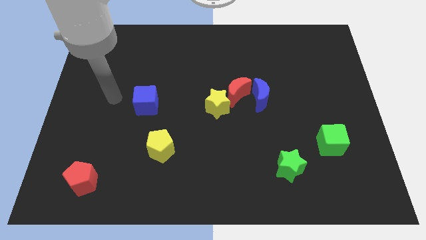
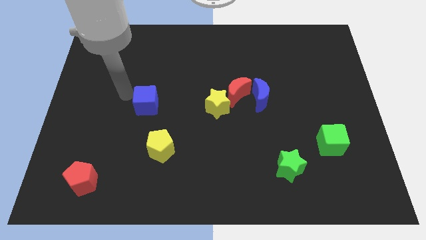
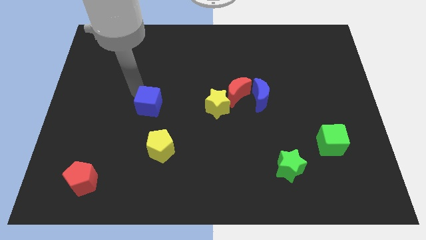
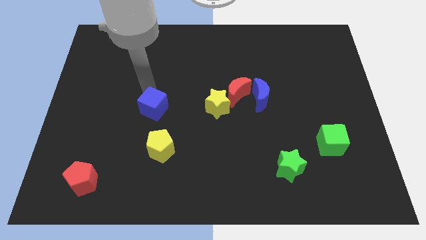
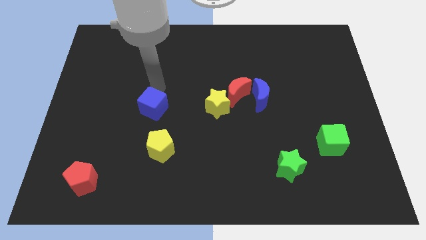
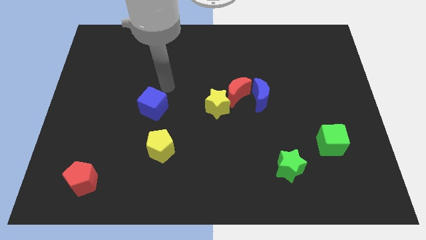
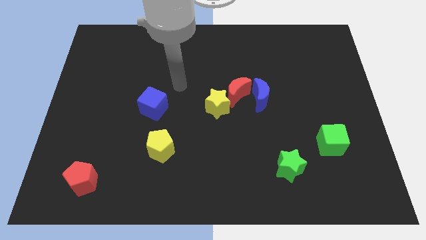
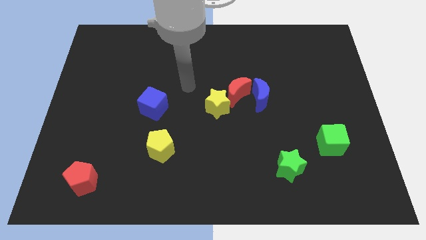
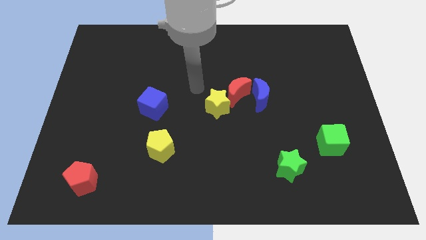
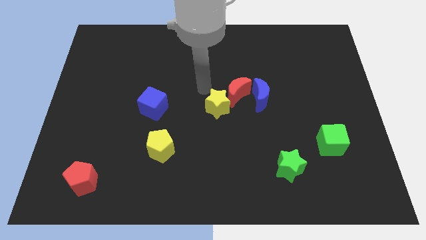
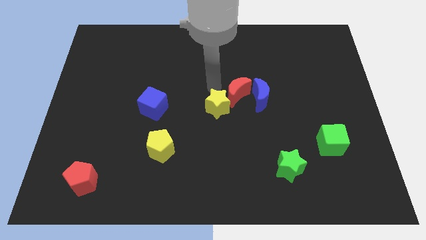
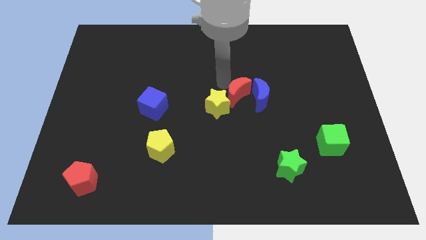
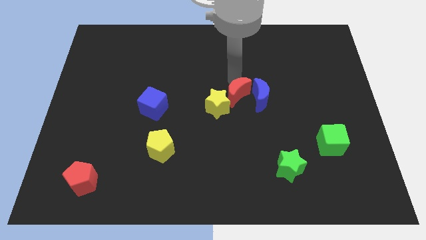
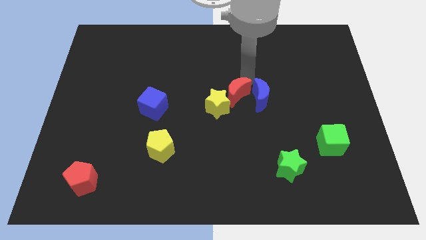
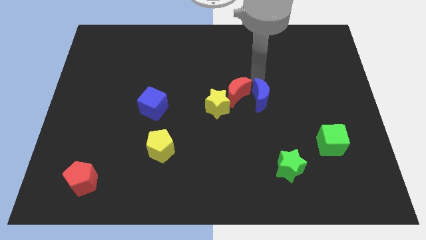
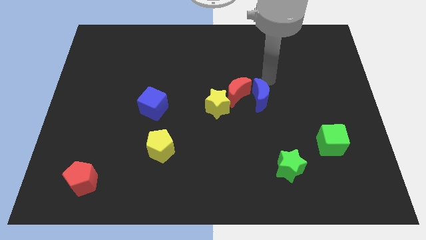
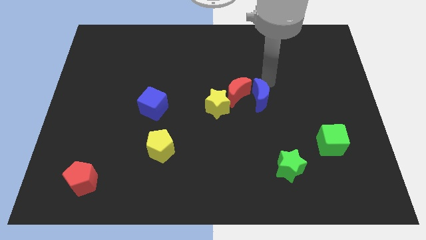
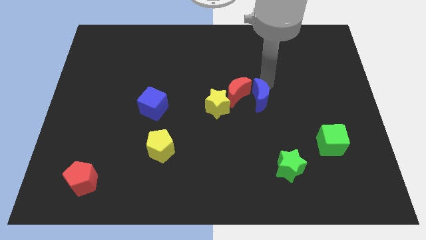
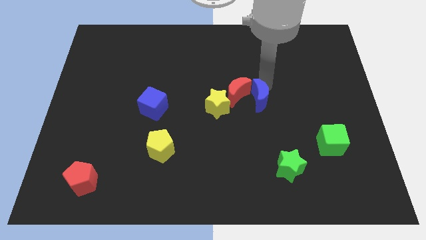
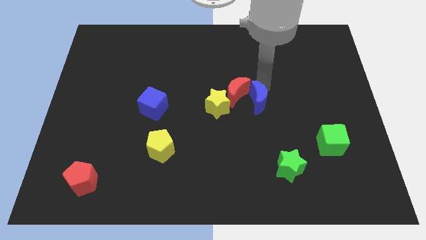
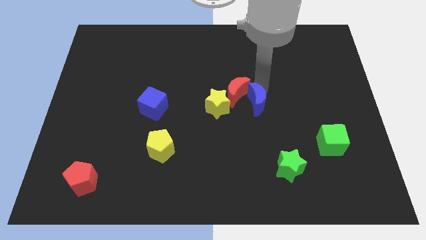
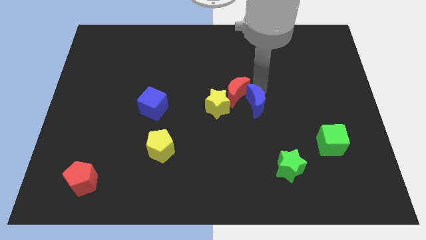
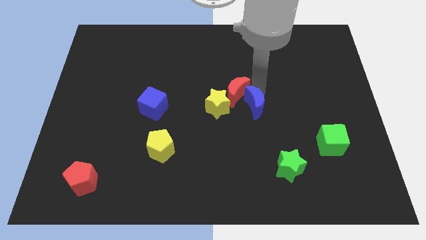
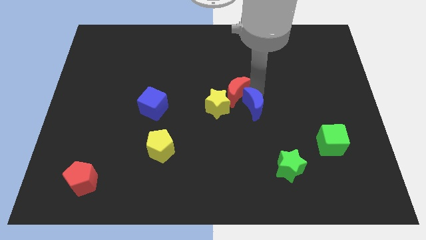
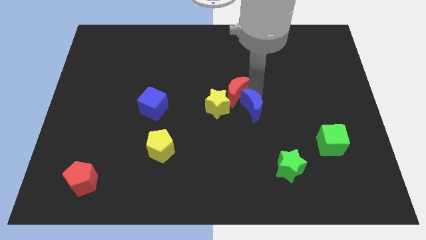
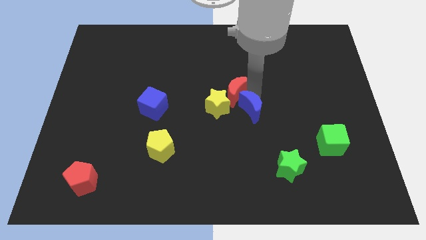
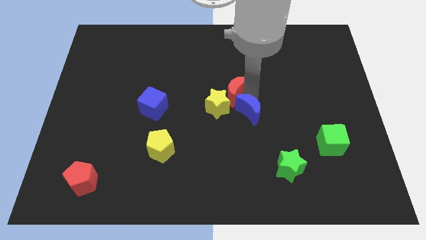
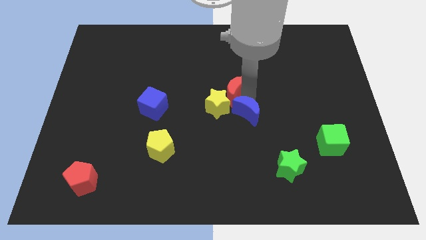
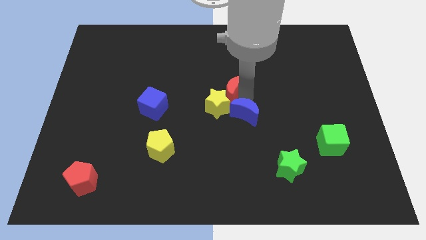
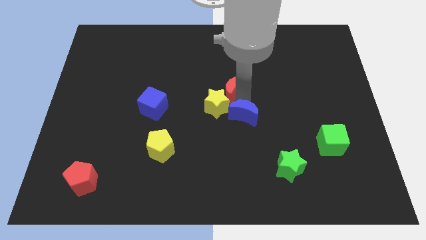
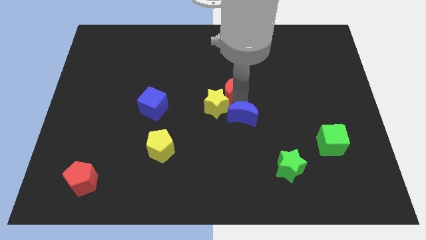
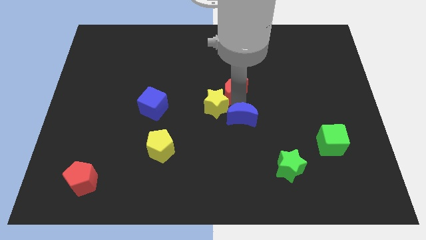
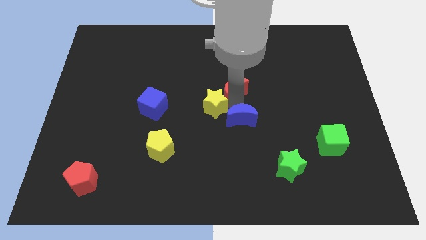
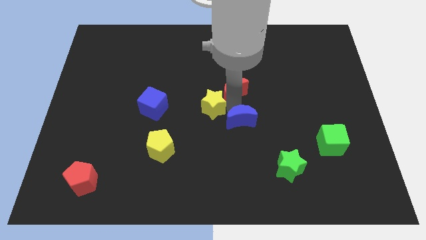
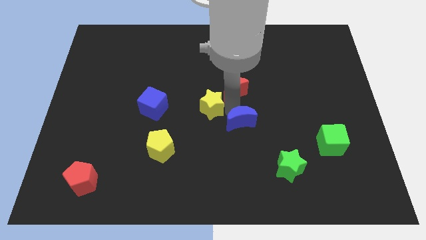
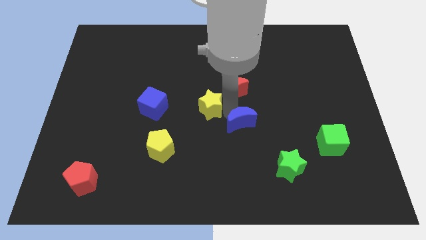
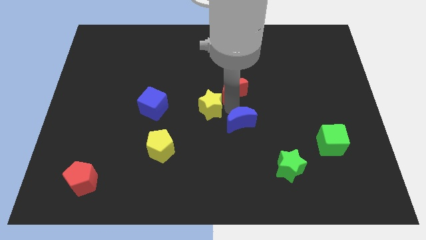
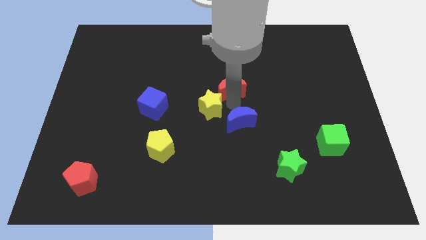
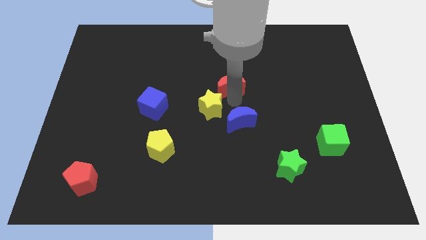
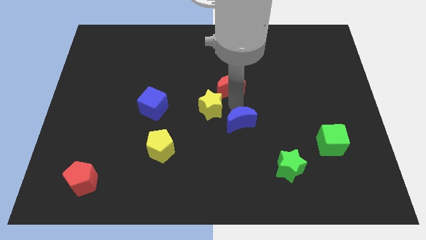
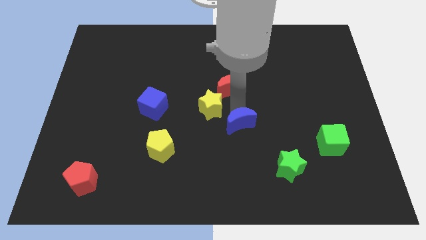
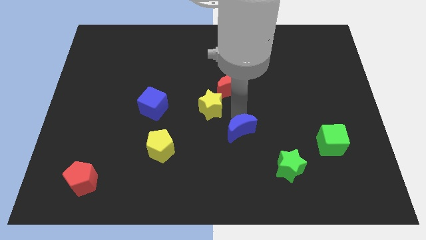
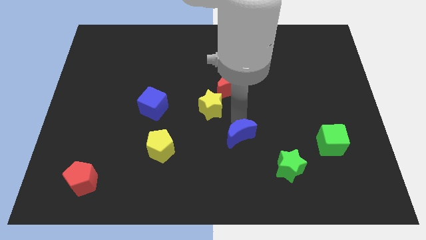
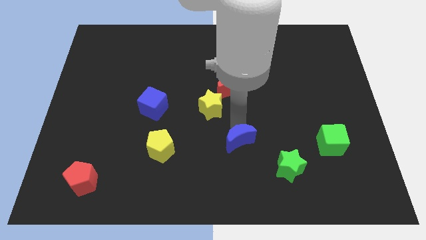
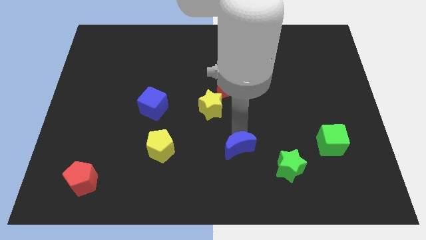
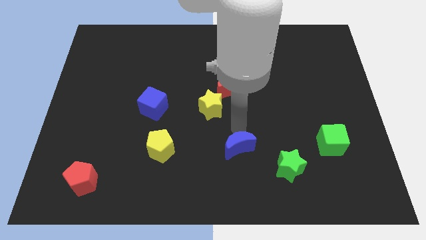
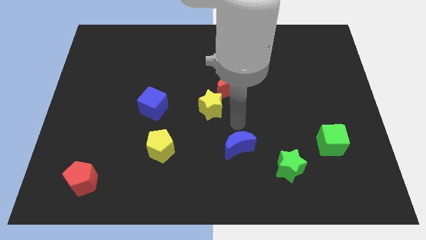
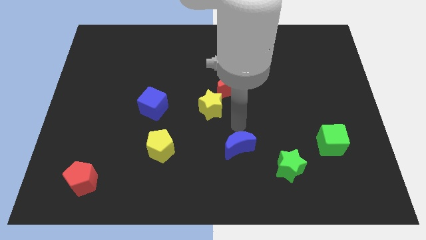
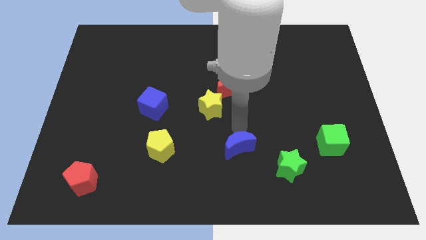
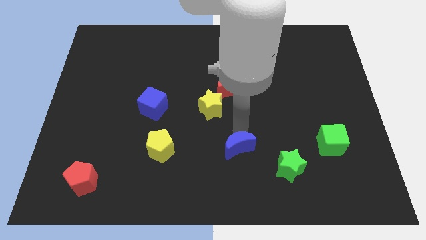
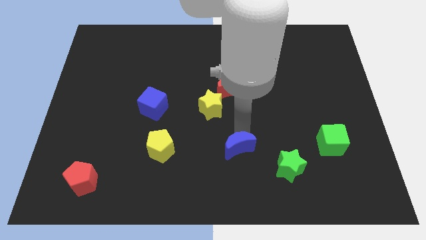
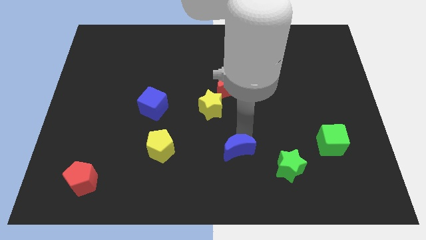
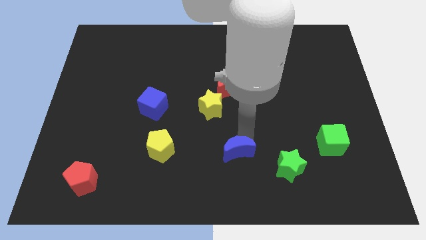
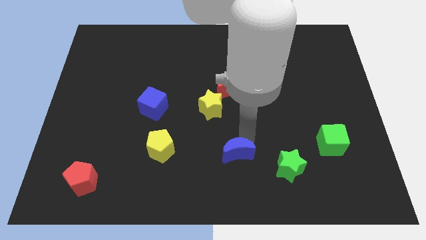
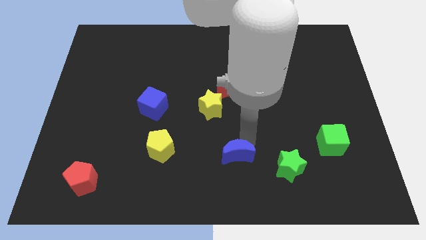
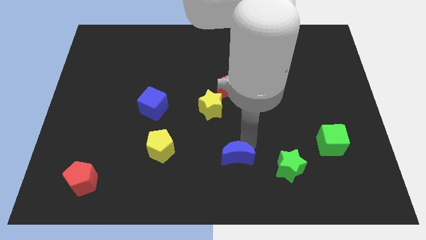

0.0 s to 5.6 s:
push the blue moon to the bottom
